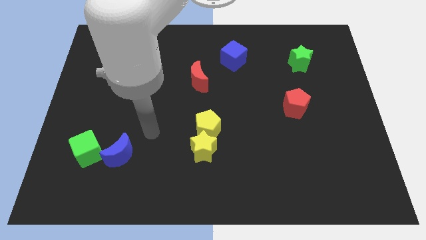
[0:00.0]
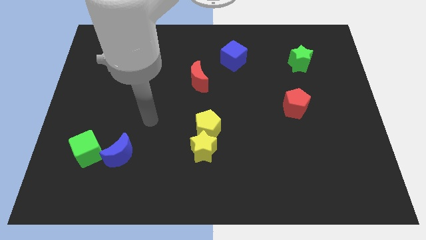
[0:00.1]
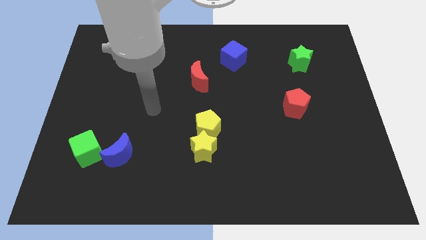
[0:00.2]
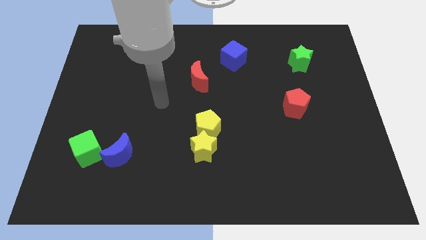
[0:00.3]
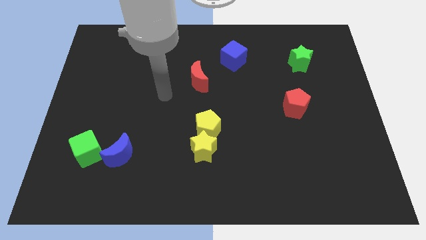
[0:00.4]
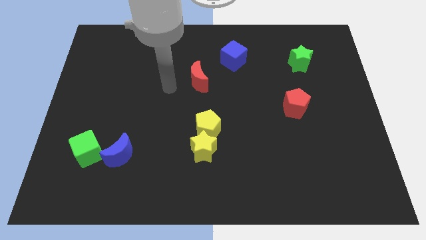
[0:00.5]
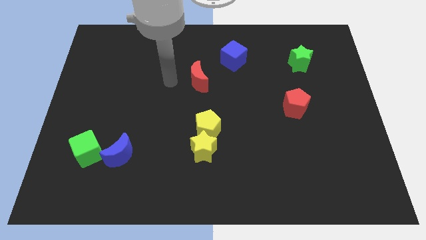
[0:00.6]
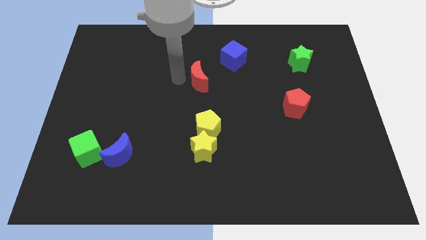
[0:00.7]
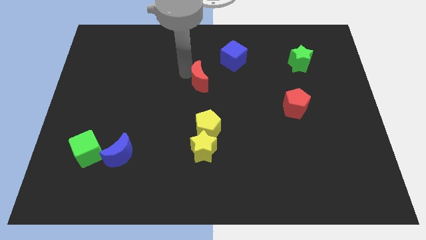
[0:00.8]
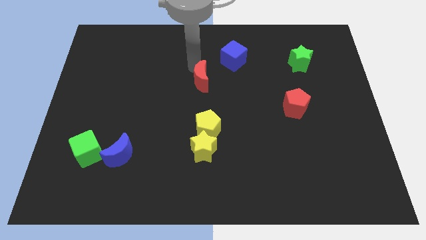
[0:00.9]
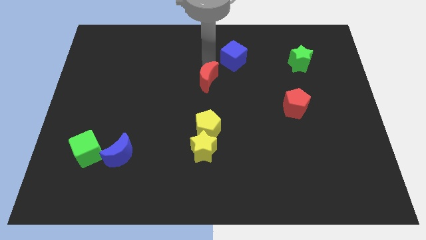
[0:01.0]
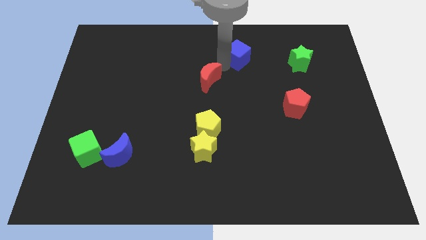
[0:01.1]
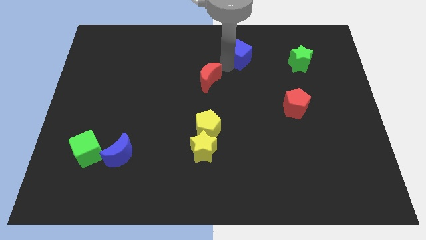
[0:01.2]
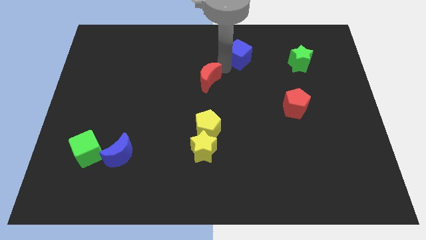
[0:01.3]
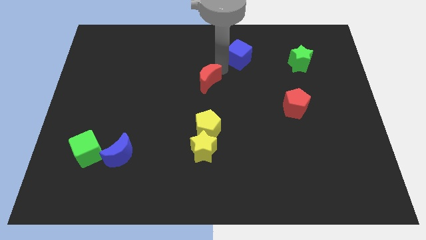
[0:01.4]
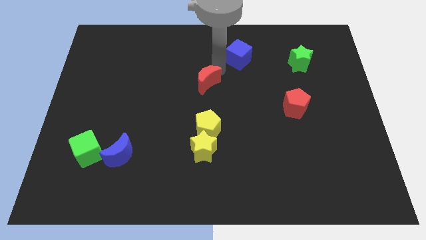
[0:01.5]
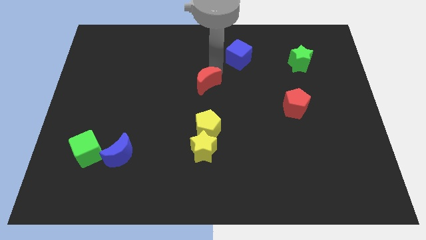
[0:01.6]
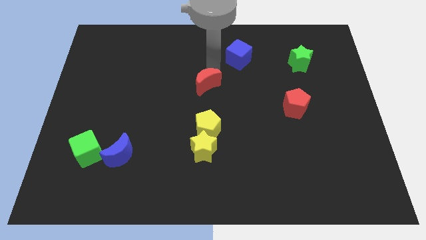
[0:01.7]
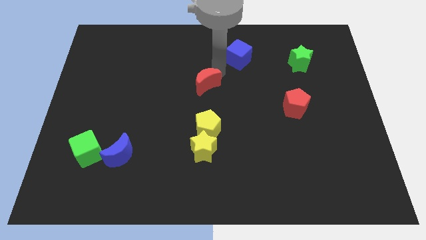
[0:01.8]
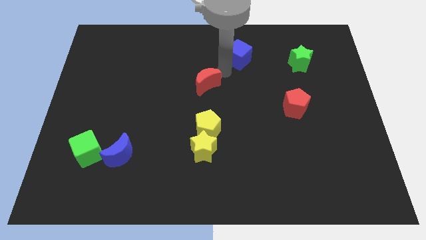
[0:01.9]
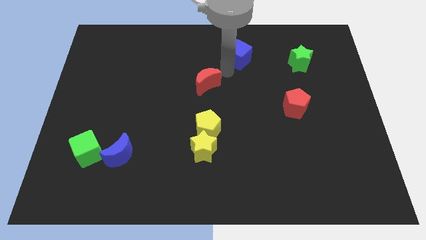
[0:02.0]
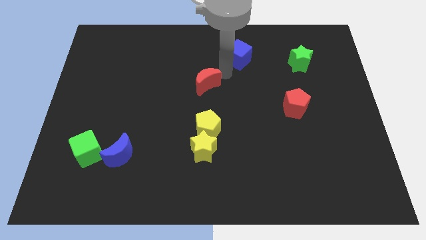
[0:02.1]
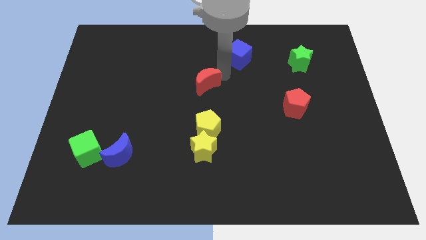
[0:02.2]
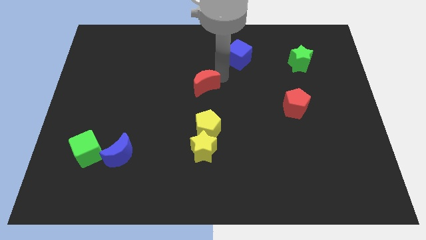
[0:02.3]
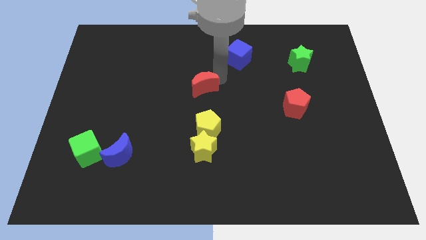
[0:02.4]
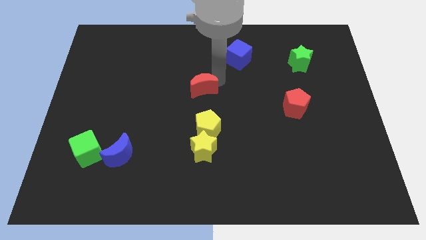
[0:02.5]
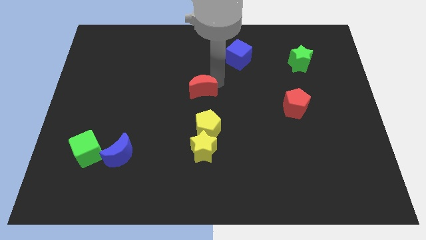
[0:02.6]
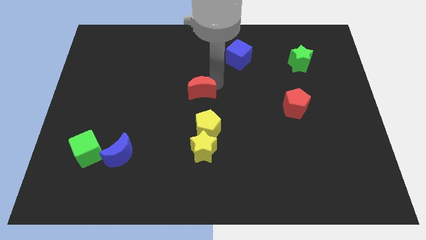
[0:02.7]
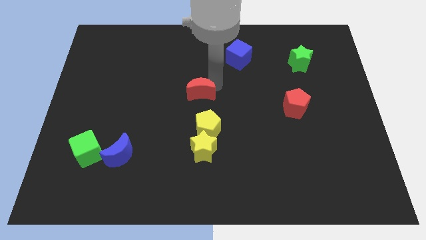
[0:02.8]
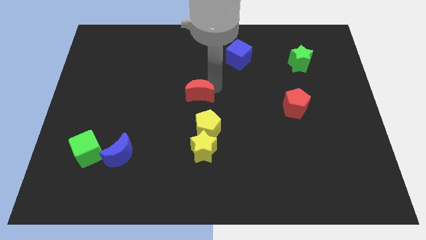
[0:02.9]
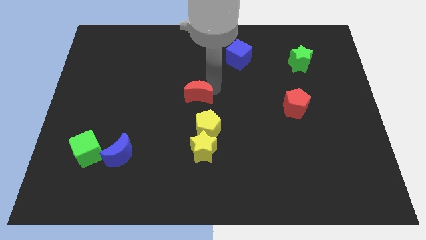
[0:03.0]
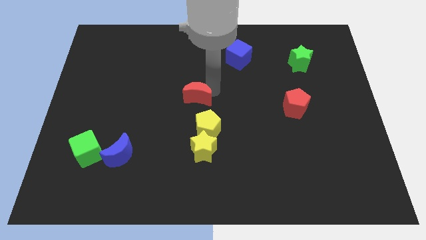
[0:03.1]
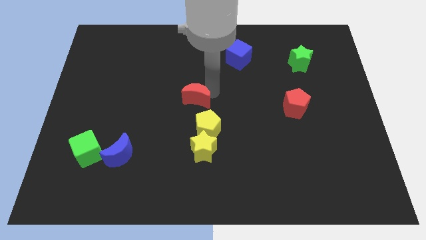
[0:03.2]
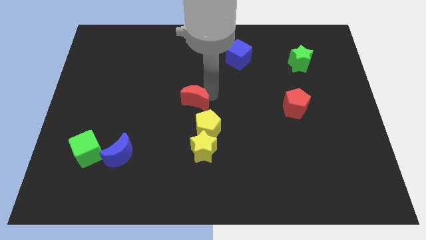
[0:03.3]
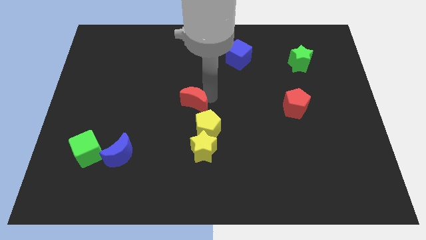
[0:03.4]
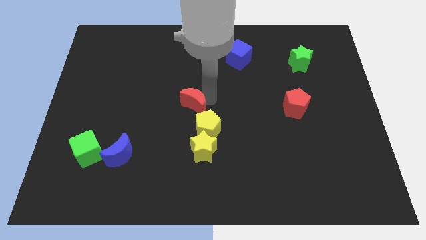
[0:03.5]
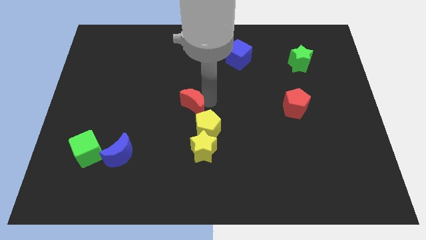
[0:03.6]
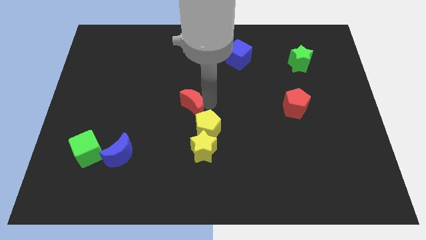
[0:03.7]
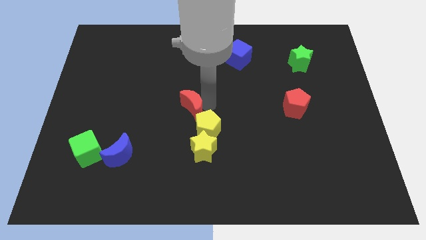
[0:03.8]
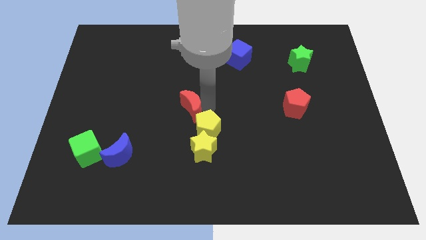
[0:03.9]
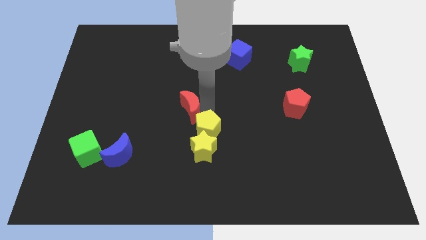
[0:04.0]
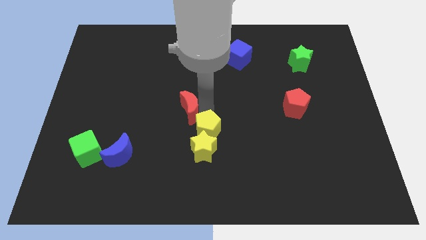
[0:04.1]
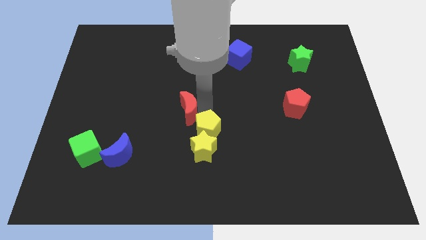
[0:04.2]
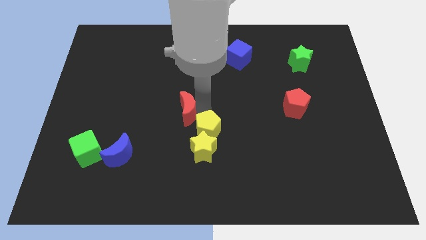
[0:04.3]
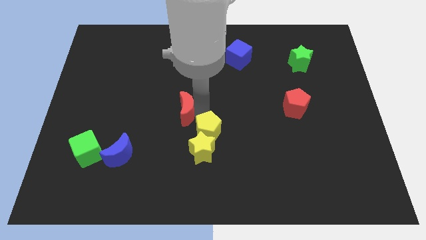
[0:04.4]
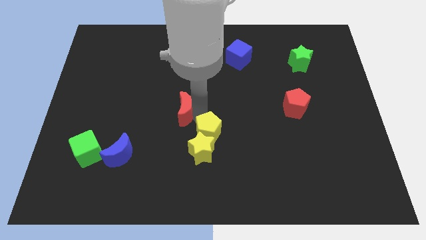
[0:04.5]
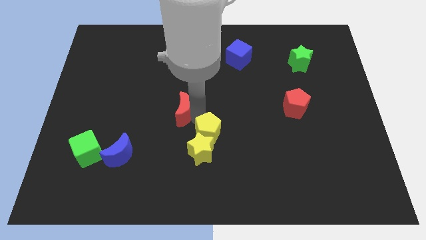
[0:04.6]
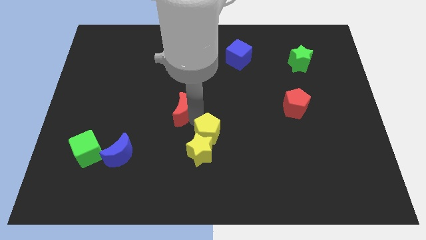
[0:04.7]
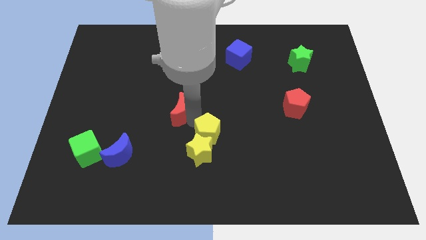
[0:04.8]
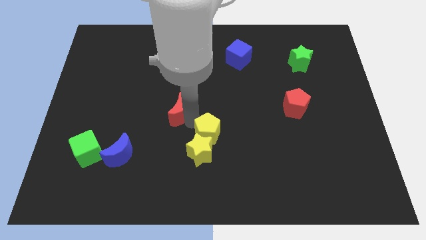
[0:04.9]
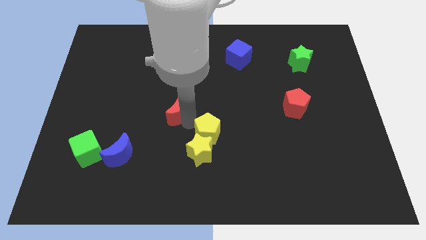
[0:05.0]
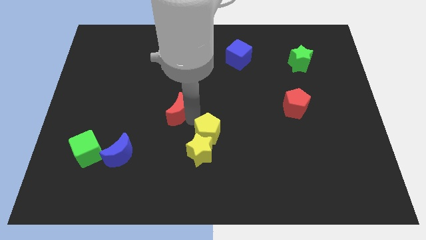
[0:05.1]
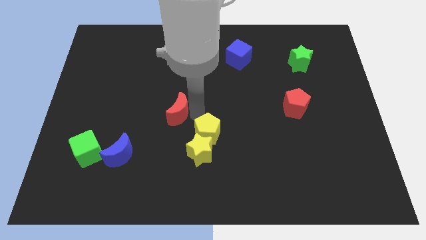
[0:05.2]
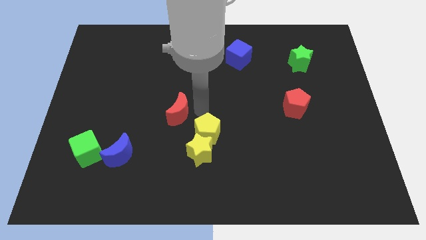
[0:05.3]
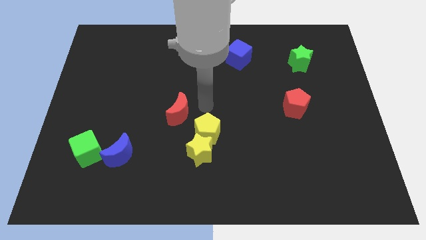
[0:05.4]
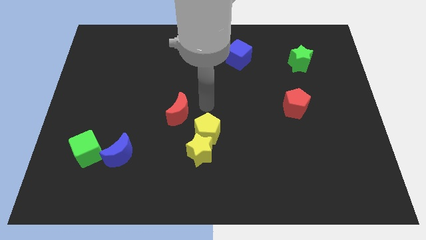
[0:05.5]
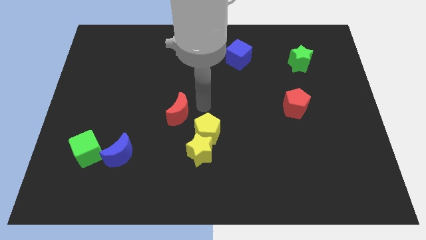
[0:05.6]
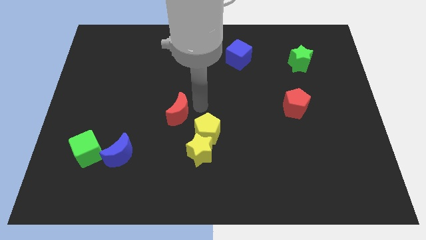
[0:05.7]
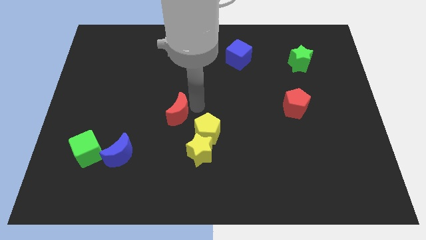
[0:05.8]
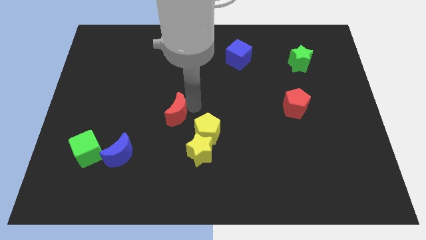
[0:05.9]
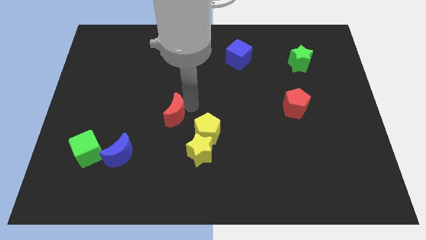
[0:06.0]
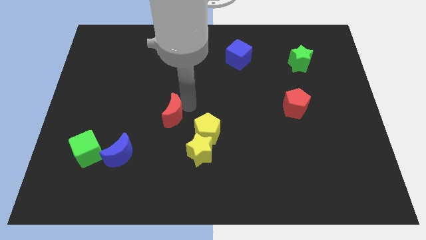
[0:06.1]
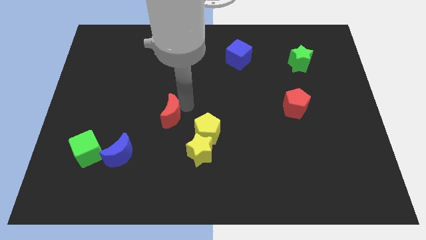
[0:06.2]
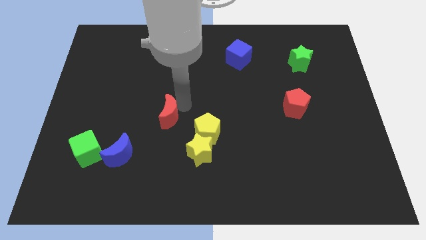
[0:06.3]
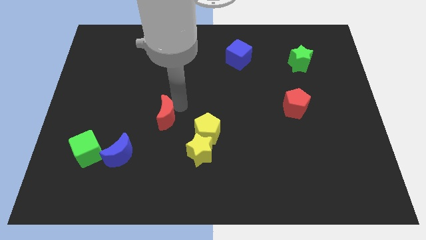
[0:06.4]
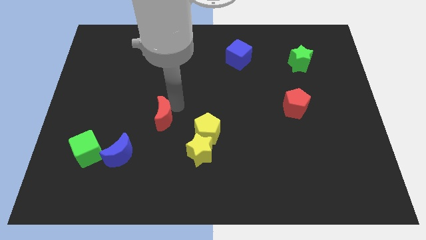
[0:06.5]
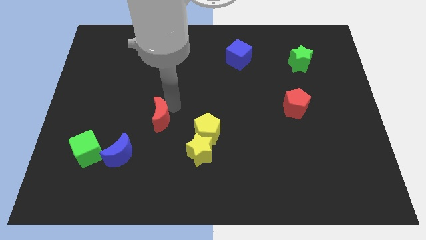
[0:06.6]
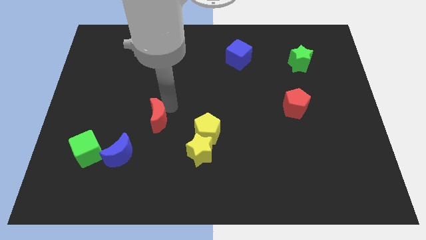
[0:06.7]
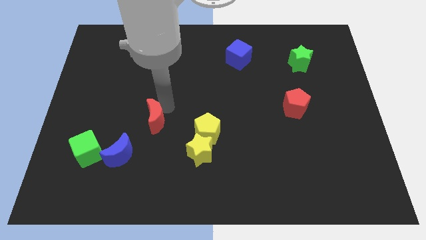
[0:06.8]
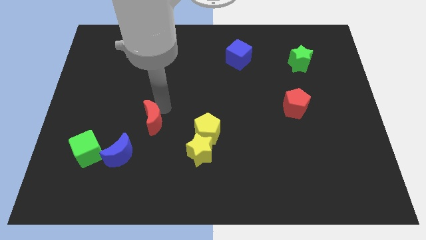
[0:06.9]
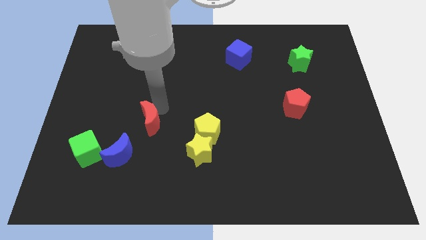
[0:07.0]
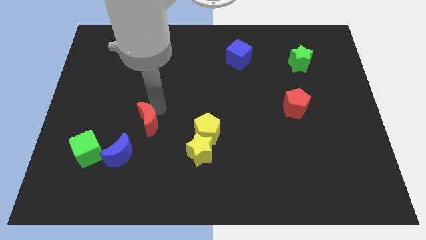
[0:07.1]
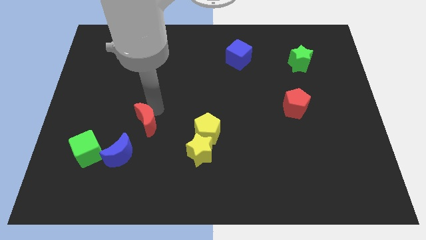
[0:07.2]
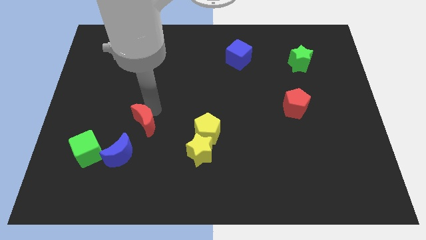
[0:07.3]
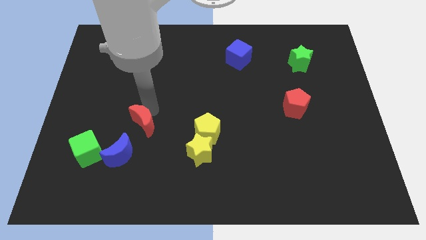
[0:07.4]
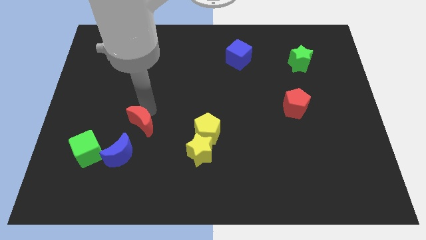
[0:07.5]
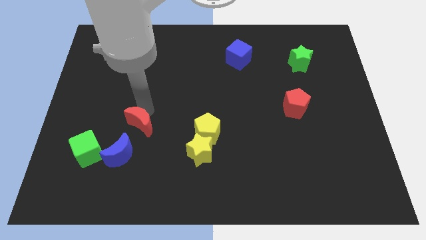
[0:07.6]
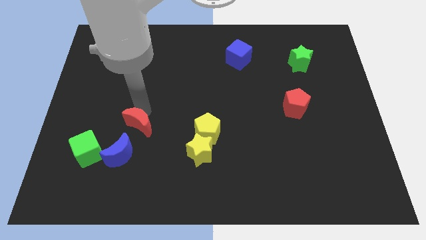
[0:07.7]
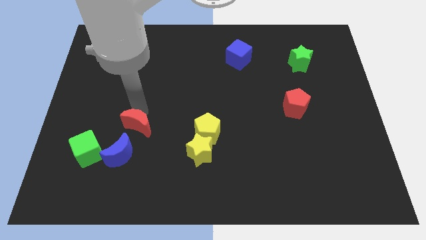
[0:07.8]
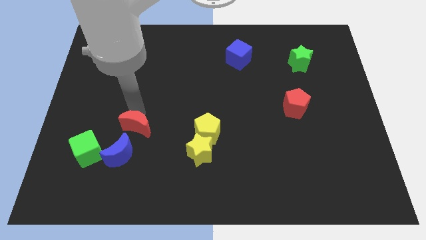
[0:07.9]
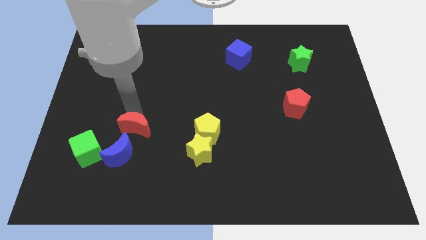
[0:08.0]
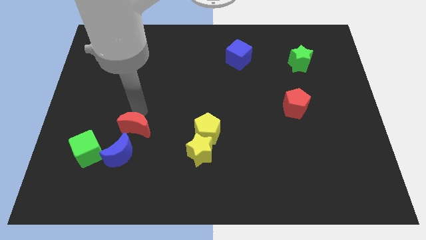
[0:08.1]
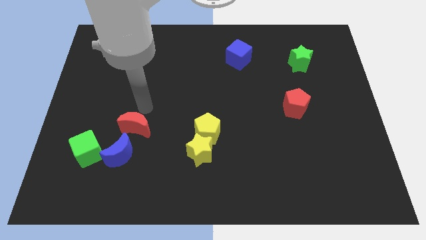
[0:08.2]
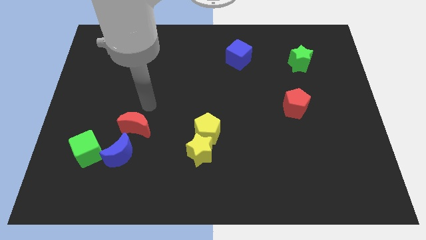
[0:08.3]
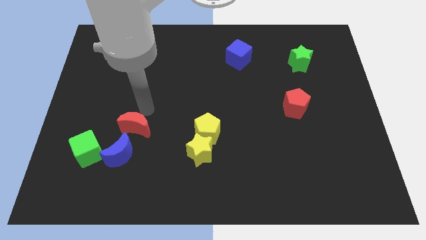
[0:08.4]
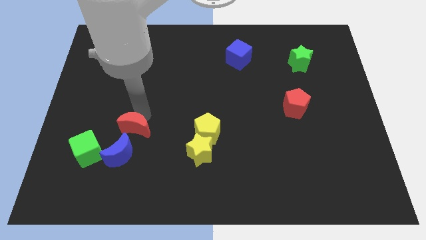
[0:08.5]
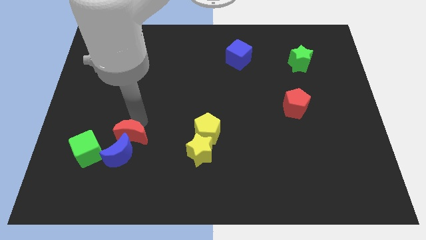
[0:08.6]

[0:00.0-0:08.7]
push the red moon to the blue moon
